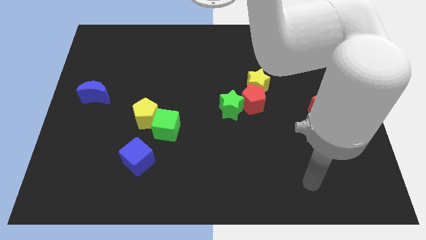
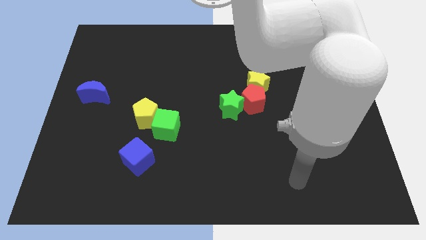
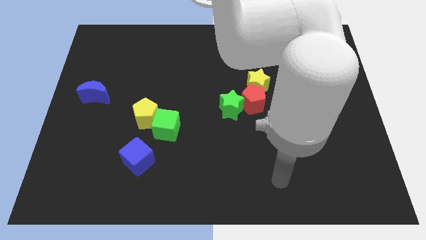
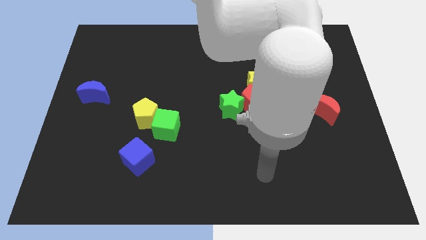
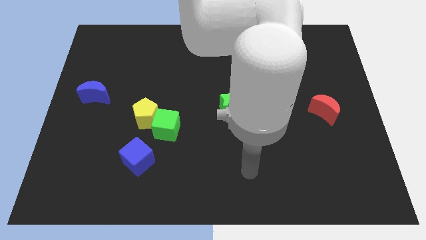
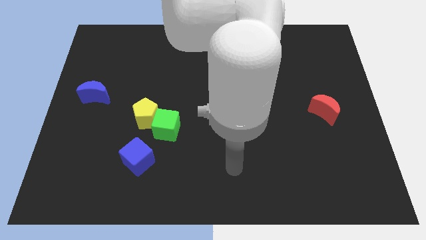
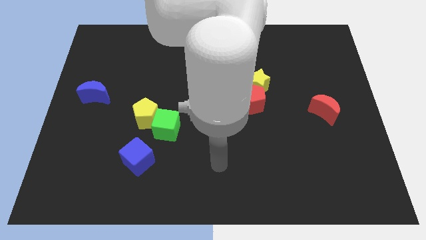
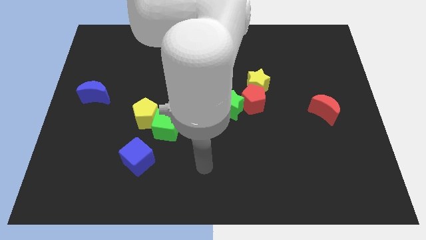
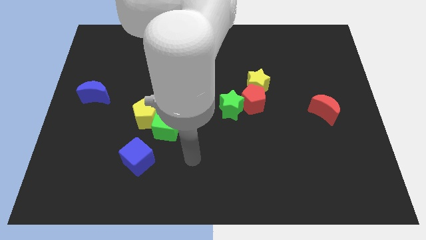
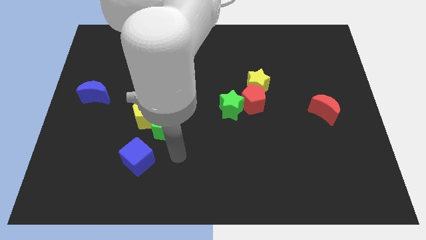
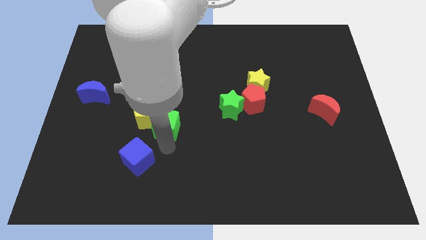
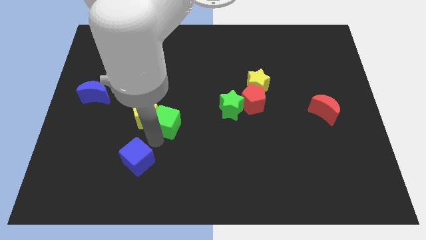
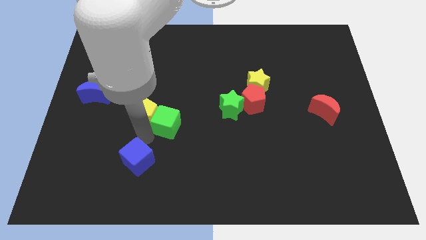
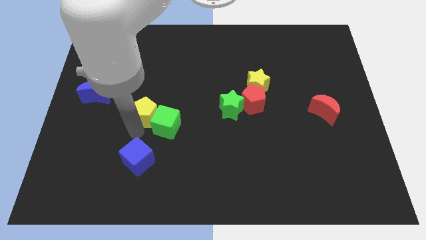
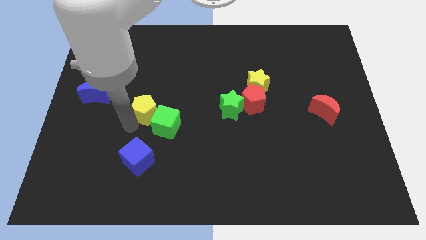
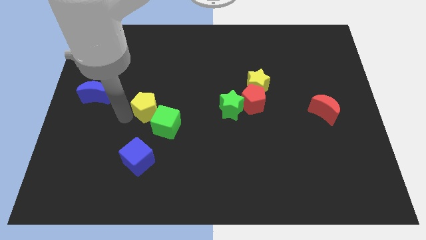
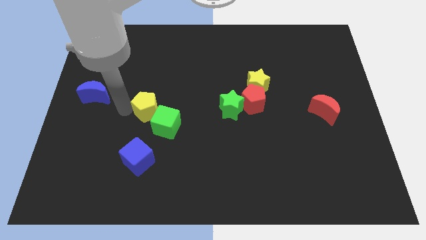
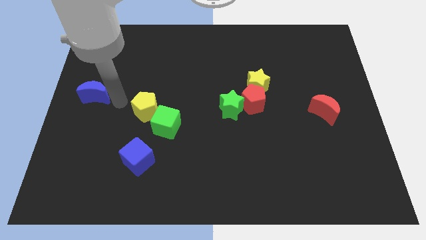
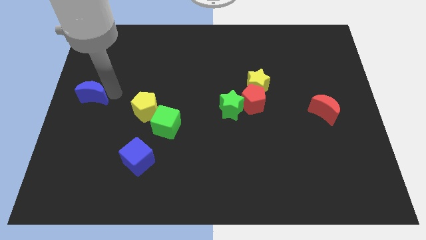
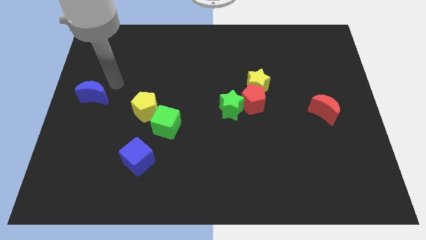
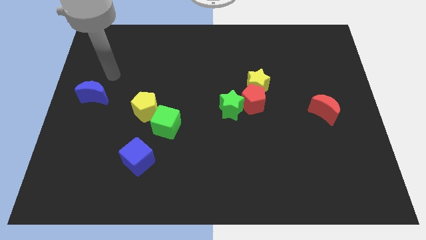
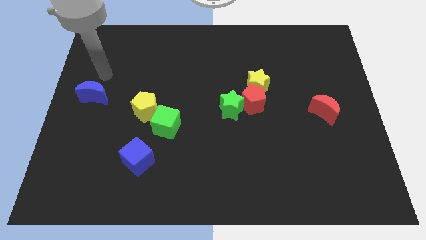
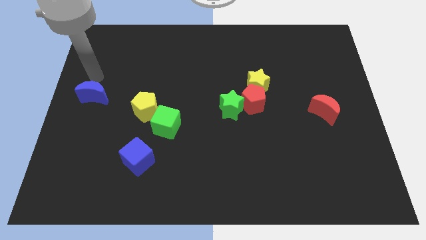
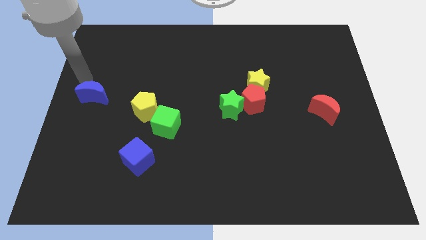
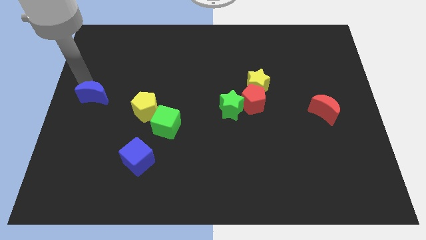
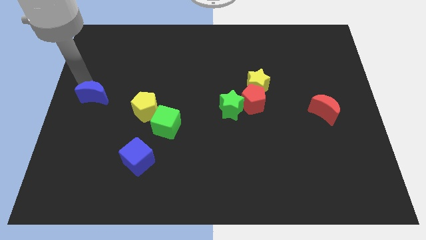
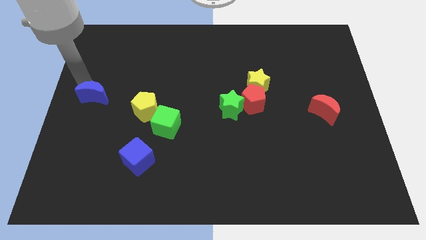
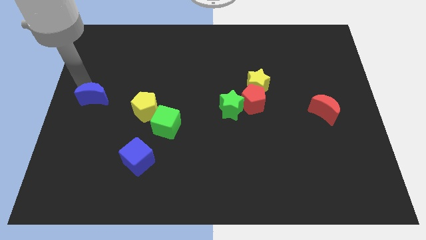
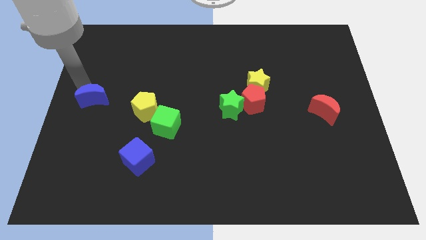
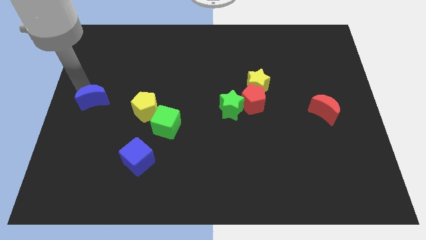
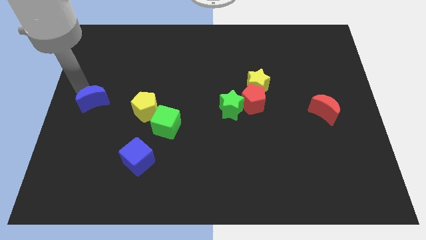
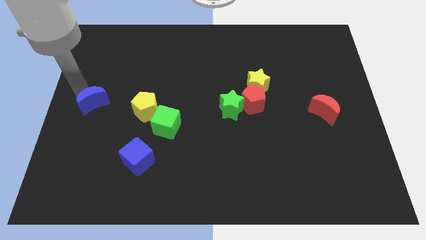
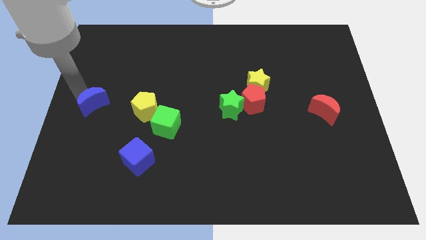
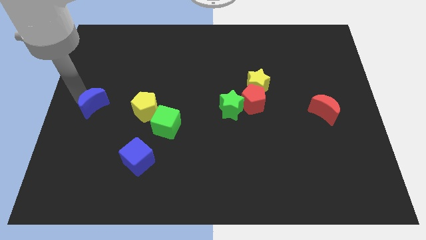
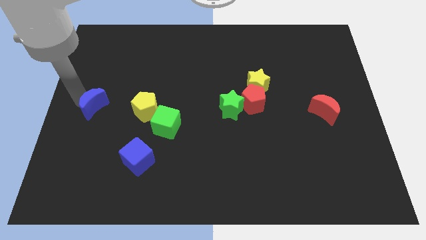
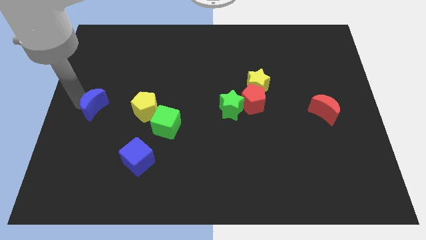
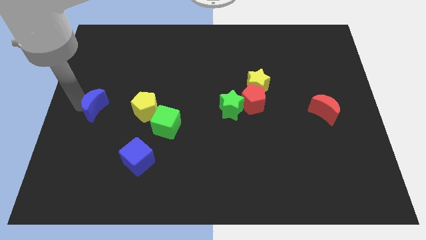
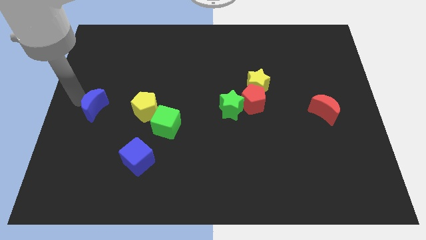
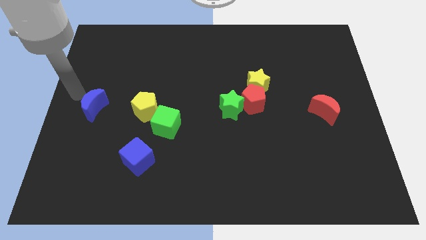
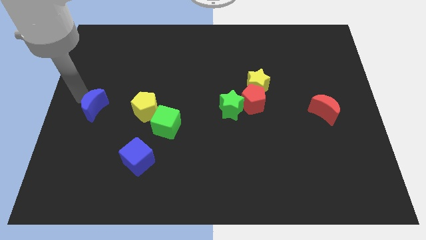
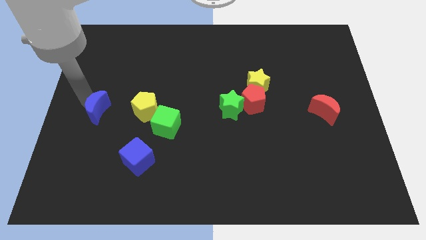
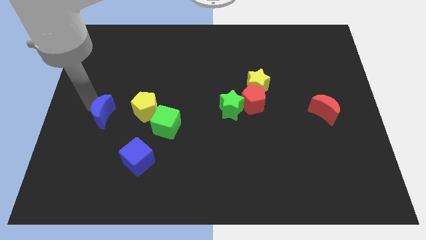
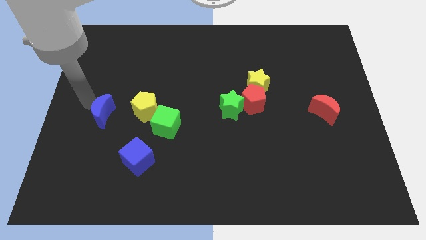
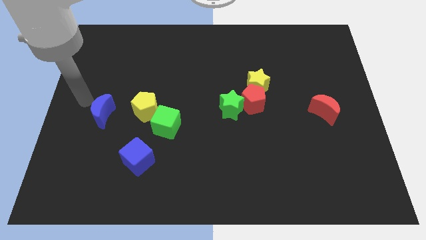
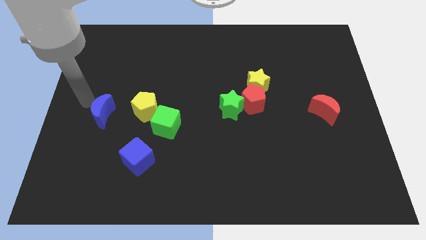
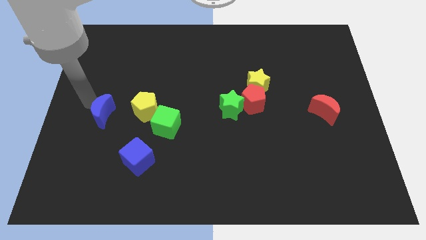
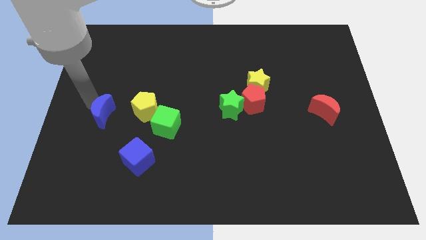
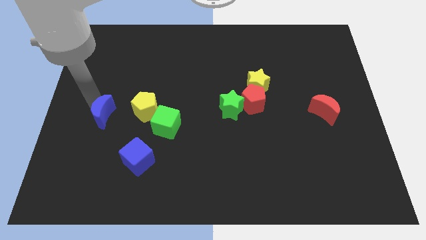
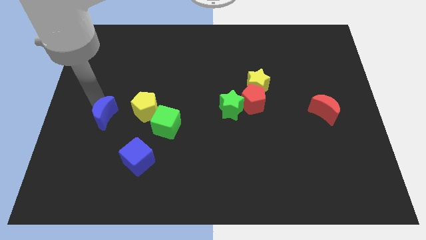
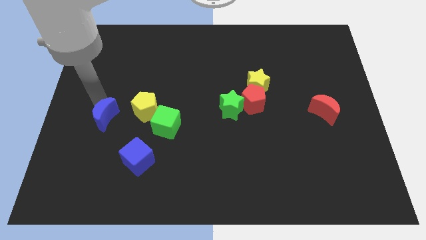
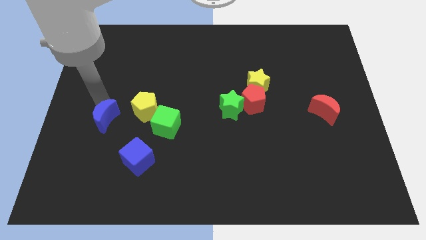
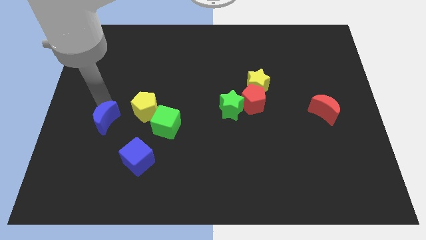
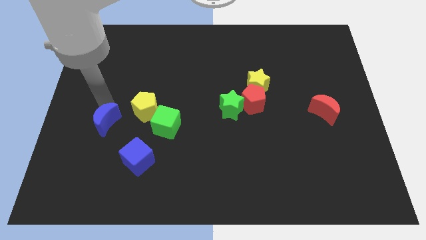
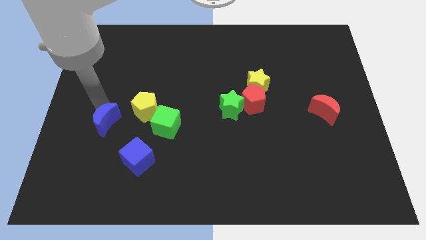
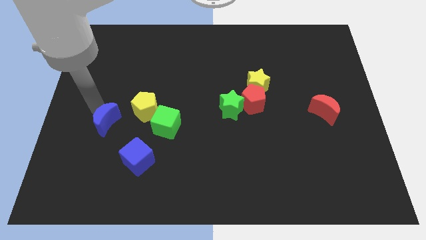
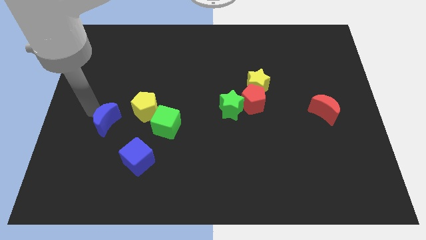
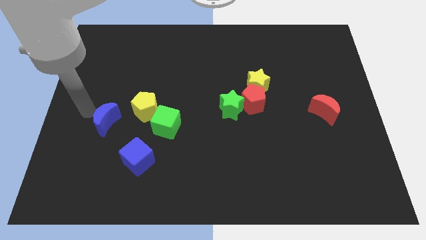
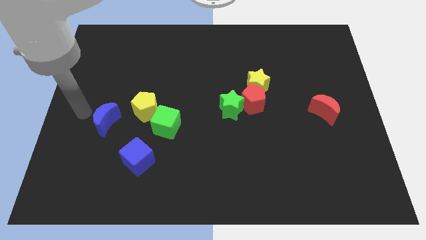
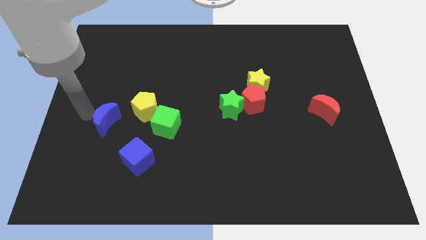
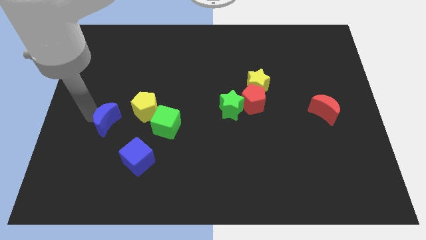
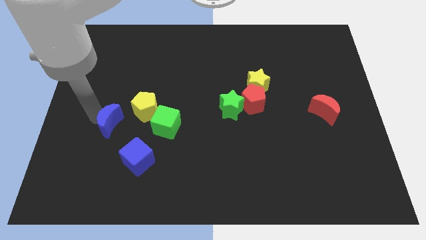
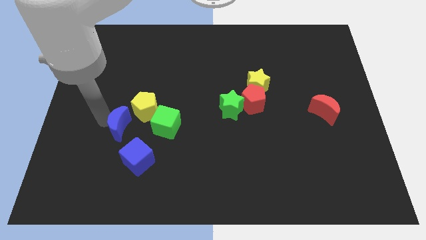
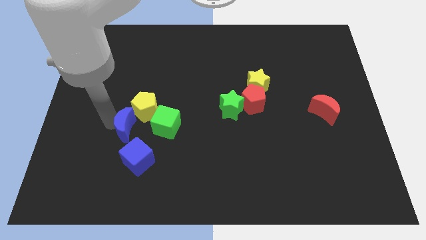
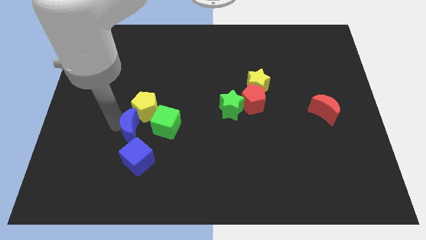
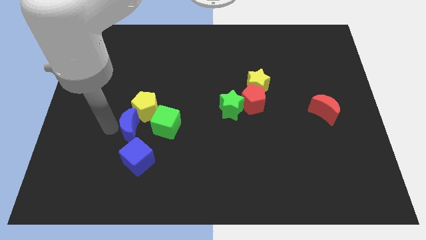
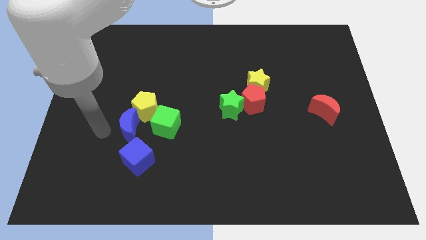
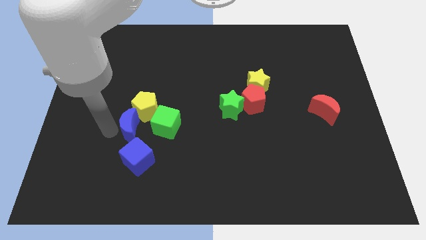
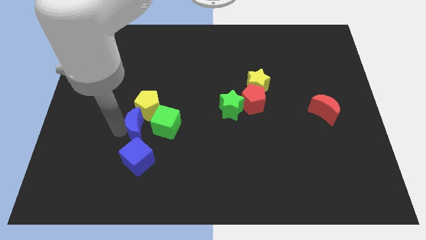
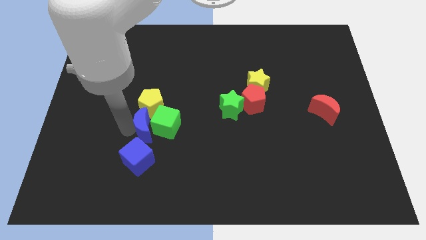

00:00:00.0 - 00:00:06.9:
slide the blue moon towards the green cube

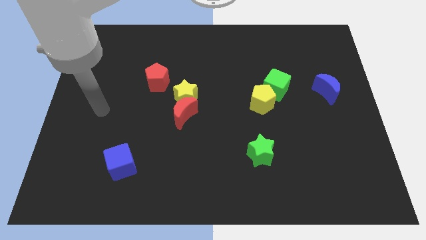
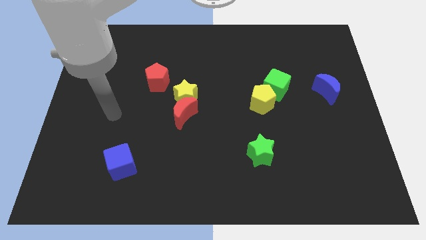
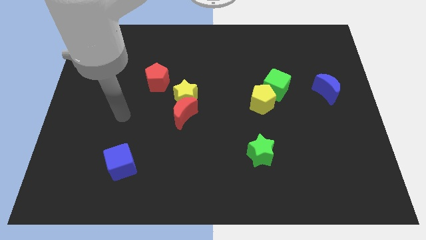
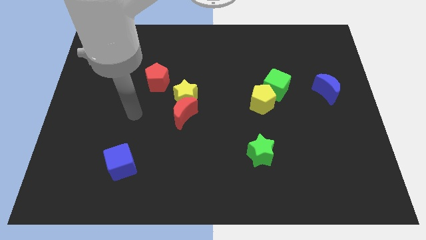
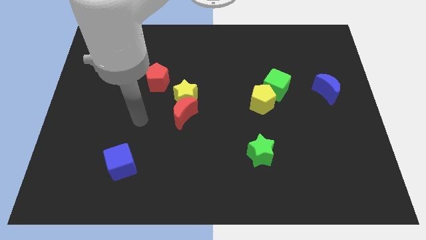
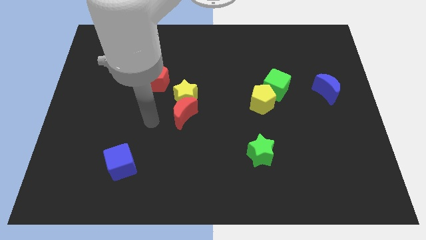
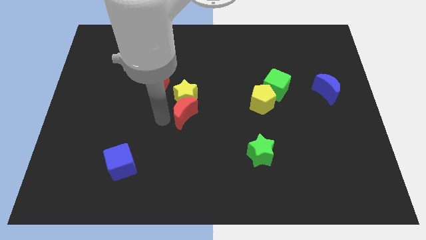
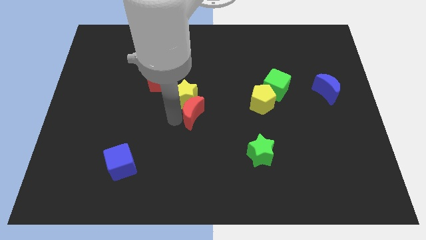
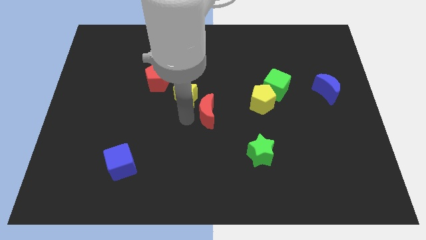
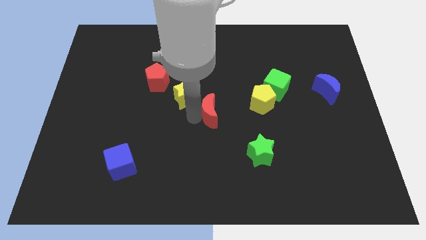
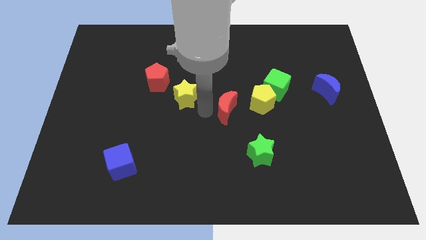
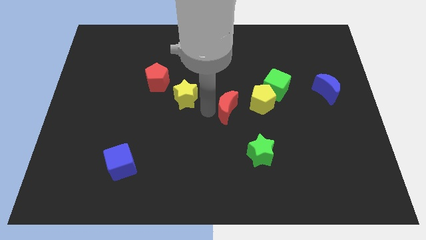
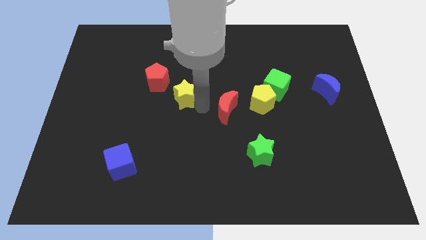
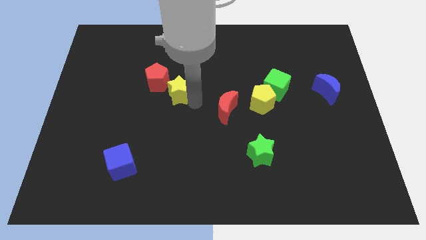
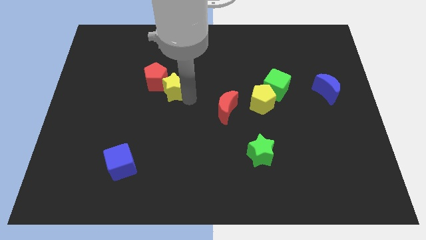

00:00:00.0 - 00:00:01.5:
put the yellow star to the red pentagon
